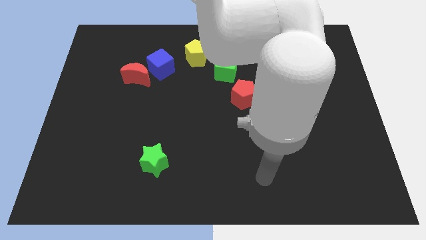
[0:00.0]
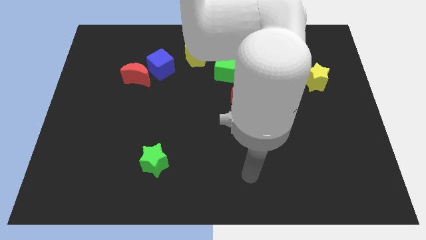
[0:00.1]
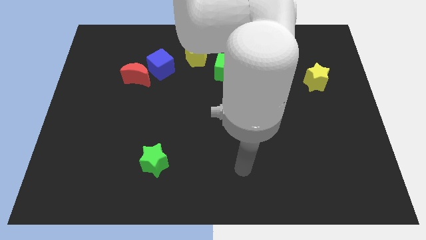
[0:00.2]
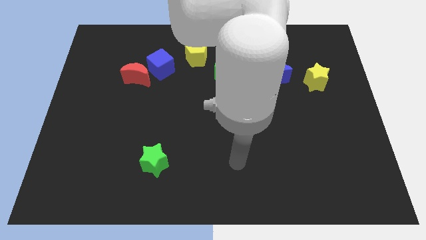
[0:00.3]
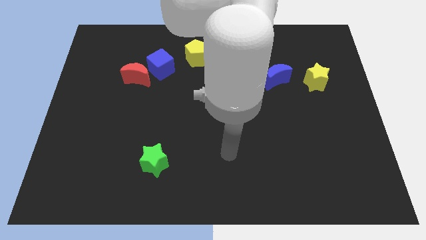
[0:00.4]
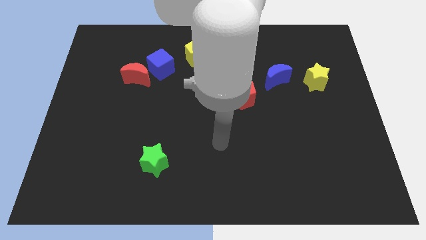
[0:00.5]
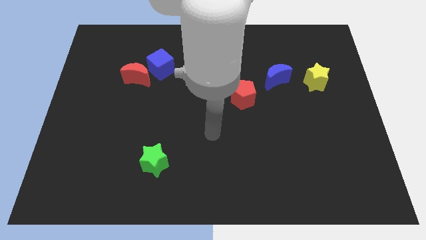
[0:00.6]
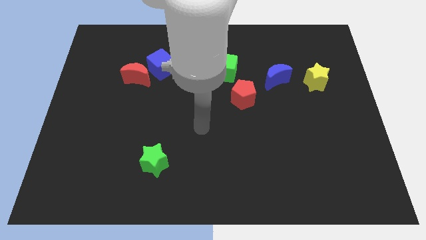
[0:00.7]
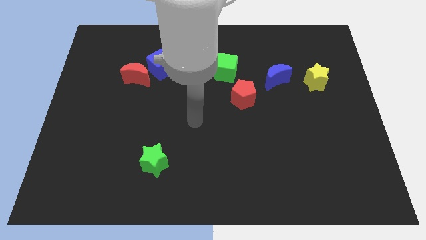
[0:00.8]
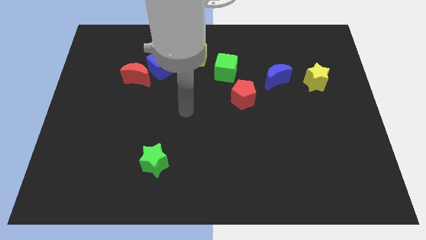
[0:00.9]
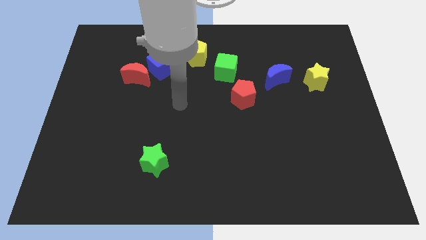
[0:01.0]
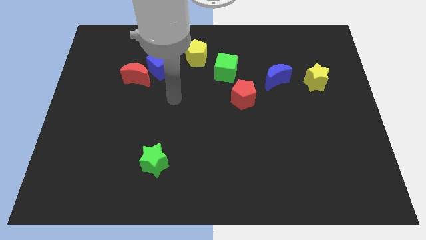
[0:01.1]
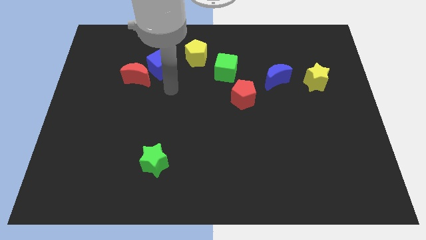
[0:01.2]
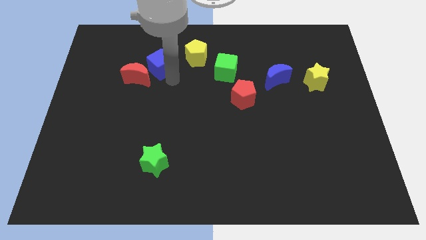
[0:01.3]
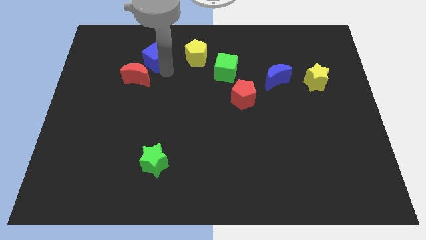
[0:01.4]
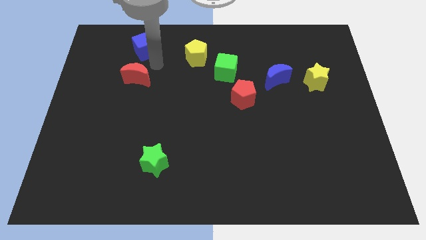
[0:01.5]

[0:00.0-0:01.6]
move the red moon away from the blue cube

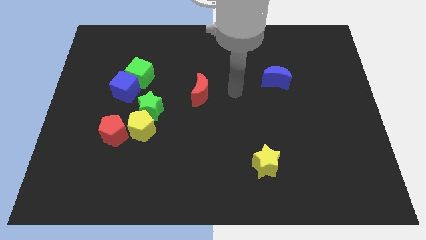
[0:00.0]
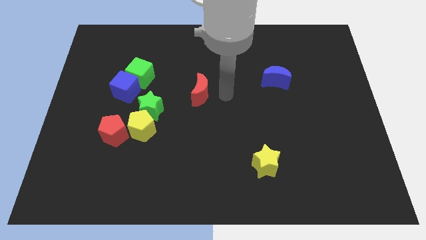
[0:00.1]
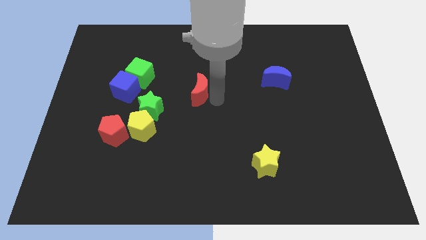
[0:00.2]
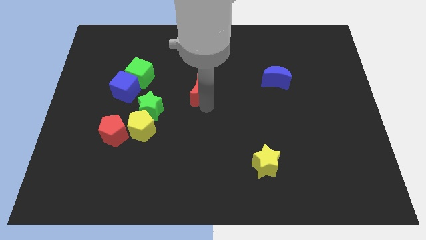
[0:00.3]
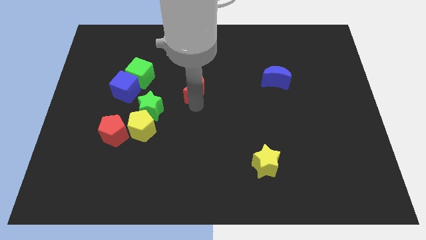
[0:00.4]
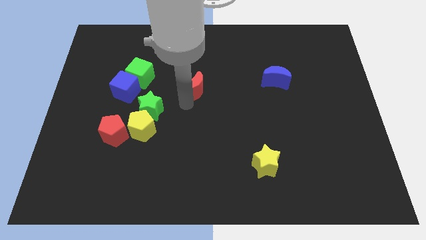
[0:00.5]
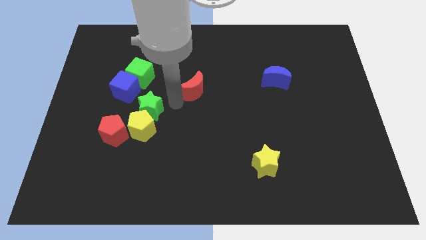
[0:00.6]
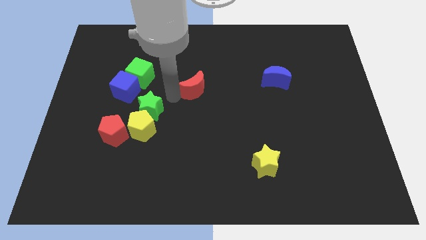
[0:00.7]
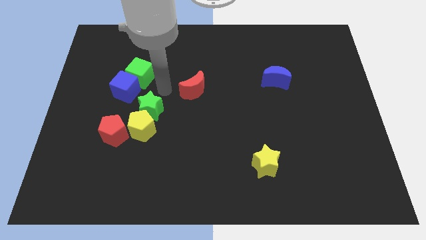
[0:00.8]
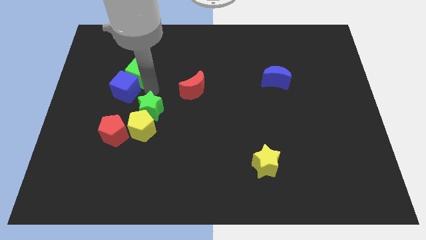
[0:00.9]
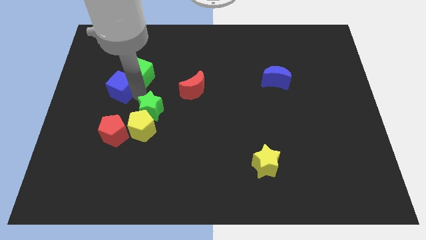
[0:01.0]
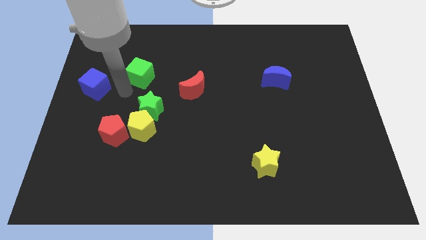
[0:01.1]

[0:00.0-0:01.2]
move the green cube away from the blue cube

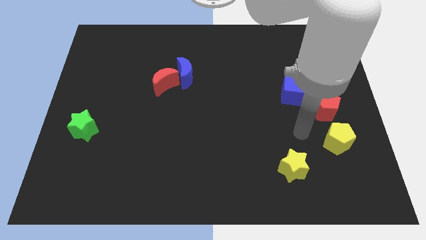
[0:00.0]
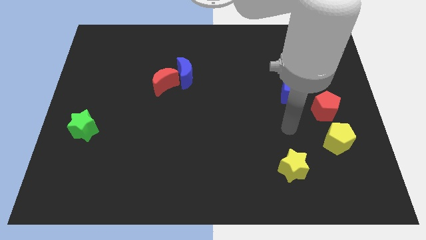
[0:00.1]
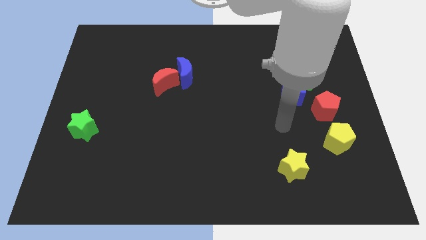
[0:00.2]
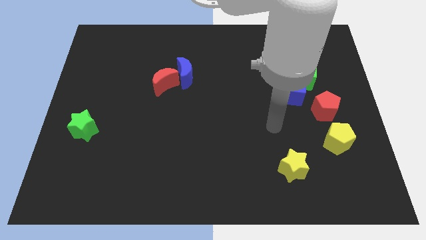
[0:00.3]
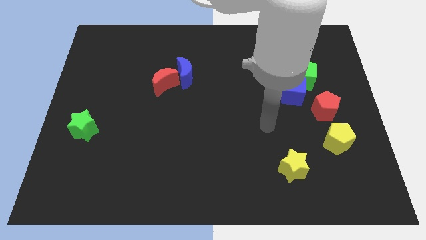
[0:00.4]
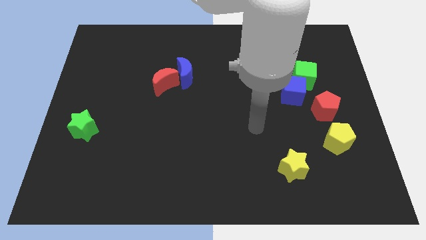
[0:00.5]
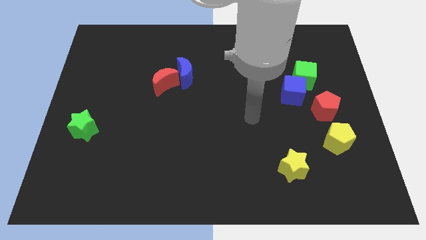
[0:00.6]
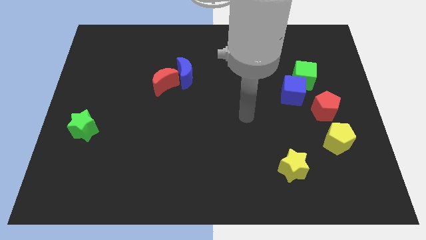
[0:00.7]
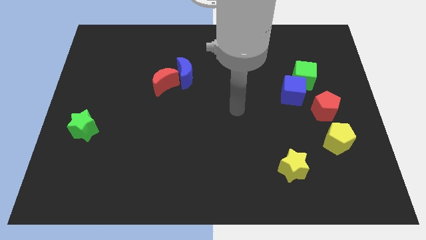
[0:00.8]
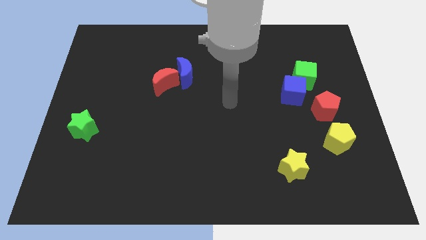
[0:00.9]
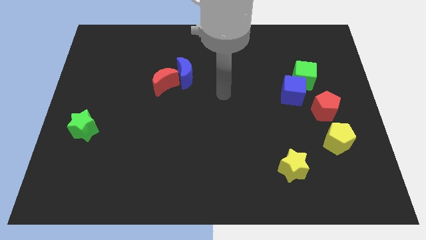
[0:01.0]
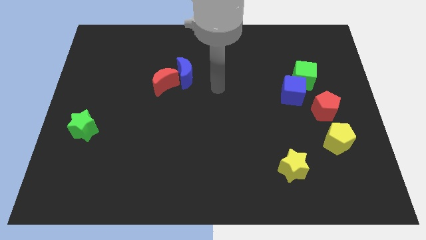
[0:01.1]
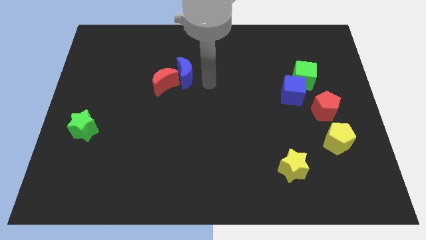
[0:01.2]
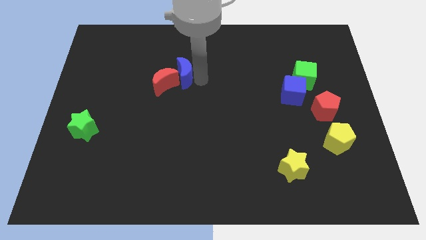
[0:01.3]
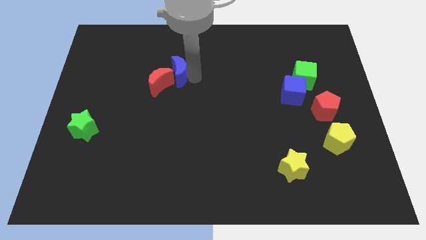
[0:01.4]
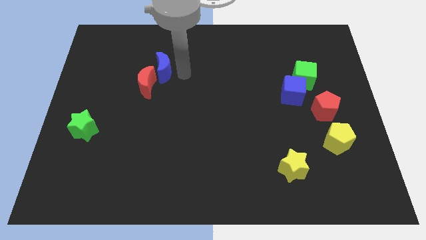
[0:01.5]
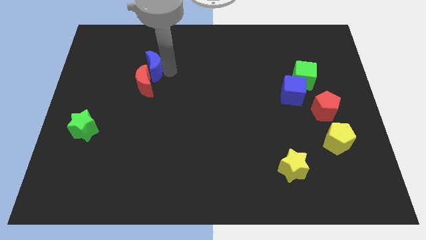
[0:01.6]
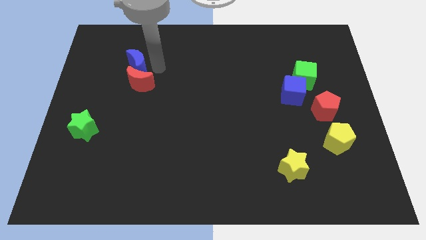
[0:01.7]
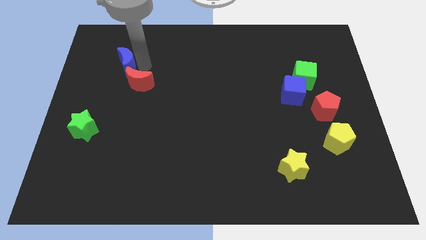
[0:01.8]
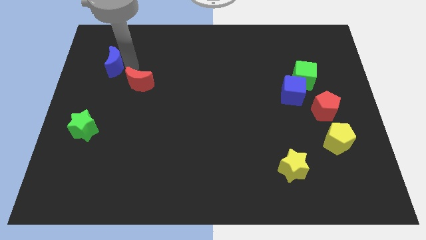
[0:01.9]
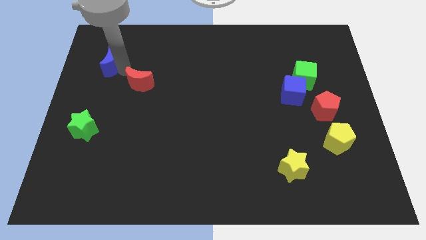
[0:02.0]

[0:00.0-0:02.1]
separate the red moon from the blue moon

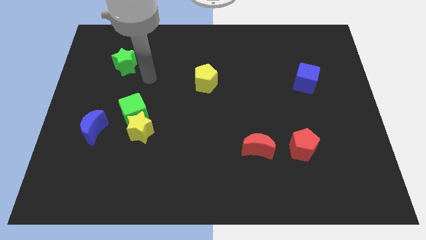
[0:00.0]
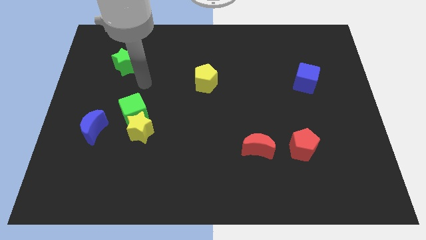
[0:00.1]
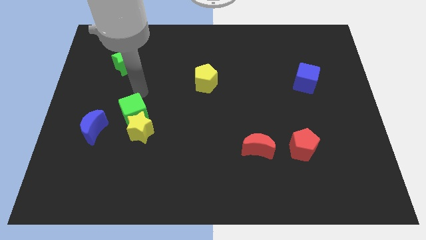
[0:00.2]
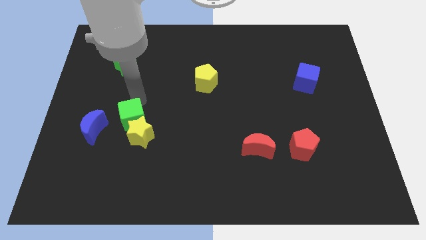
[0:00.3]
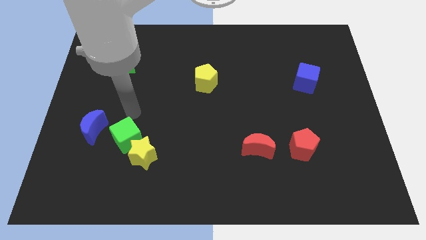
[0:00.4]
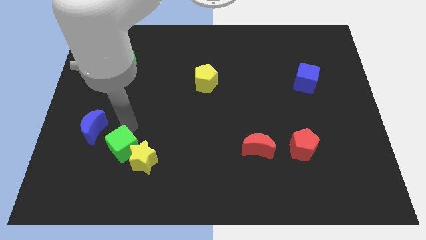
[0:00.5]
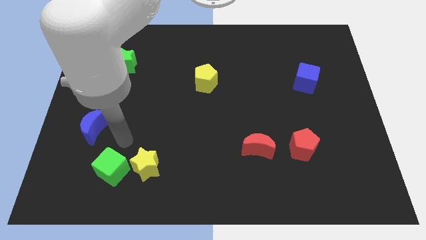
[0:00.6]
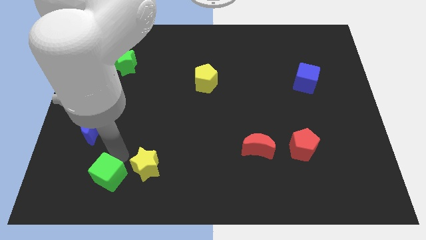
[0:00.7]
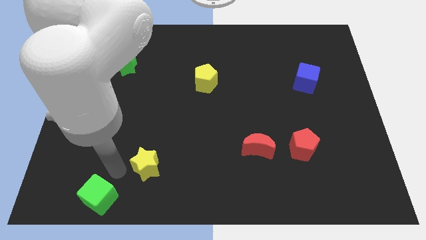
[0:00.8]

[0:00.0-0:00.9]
pull the yellow star apart from the green cube

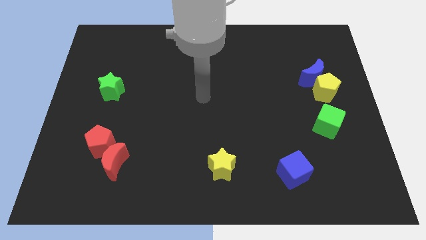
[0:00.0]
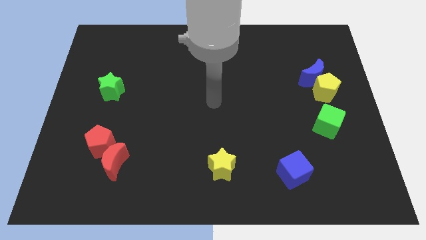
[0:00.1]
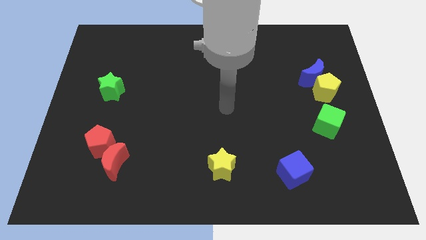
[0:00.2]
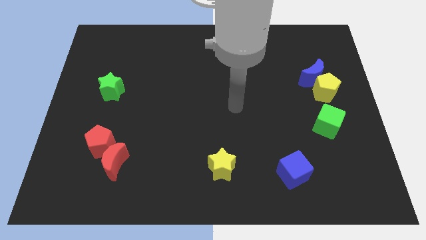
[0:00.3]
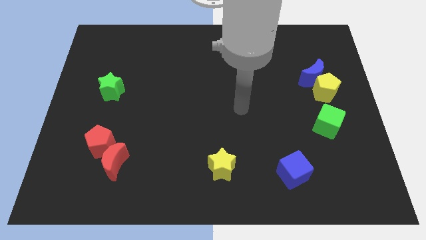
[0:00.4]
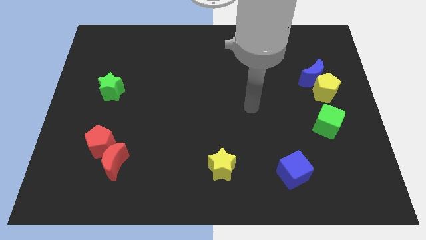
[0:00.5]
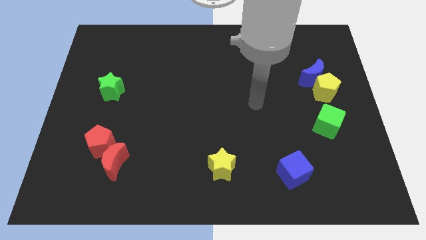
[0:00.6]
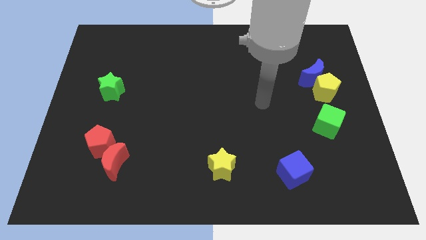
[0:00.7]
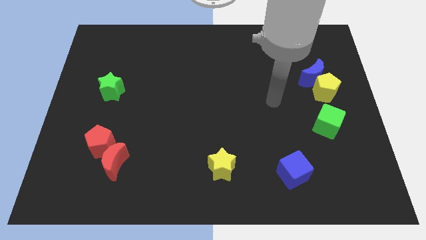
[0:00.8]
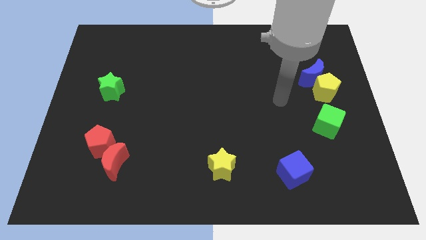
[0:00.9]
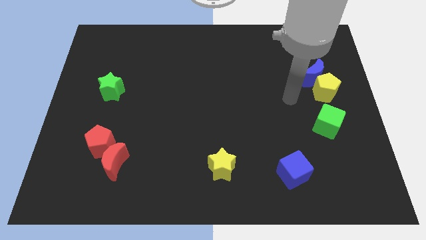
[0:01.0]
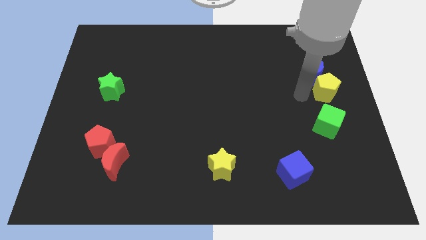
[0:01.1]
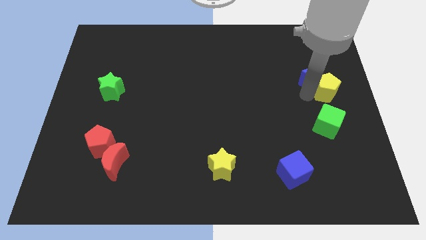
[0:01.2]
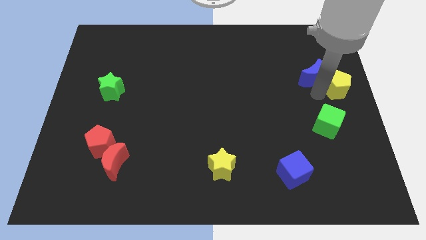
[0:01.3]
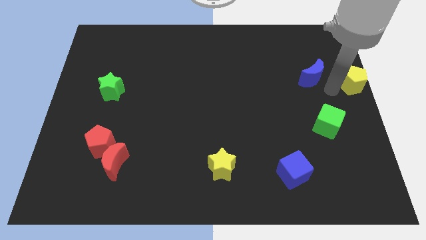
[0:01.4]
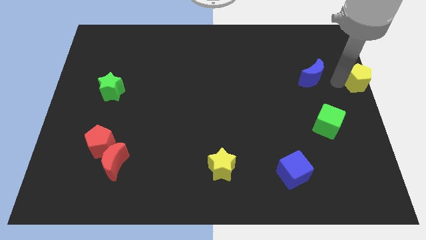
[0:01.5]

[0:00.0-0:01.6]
move the blue moon away from the yellow pentagon

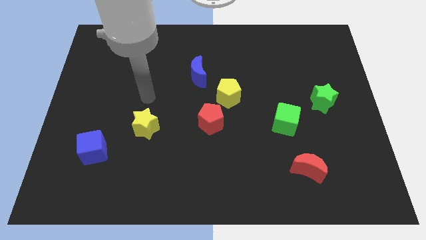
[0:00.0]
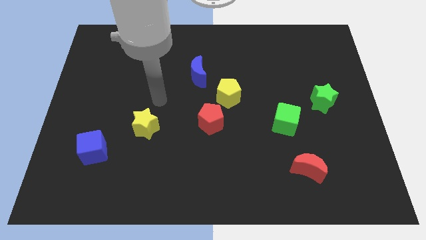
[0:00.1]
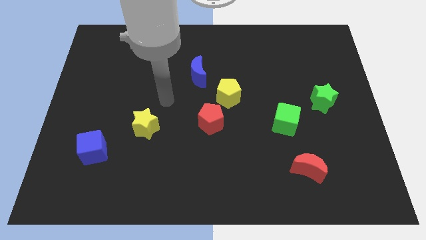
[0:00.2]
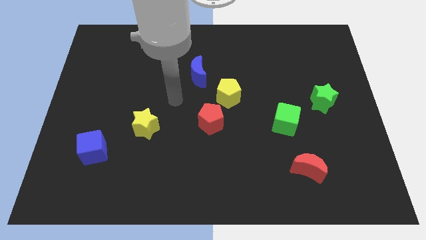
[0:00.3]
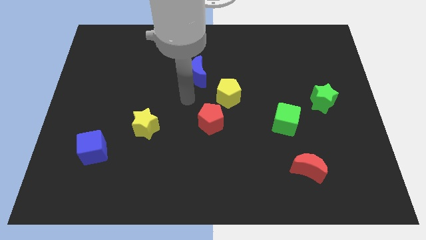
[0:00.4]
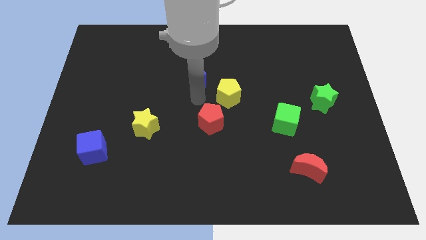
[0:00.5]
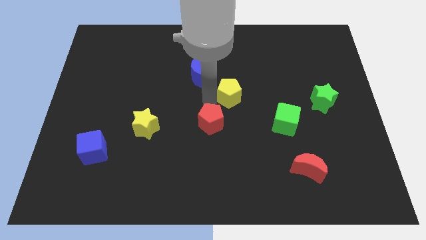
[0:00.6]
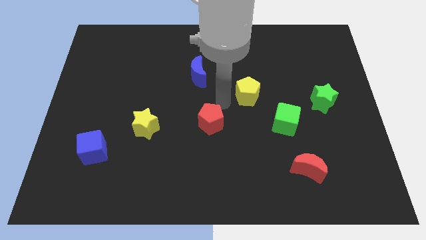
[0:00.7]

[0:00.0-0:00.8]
move the red pentagon away from the yellow pentagon

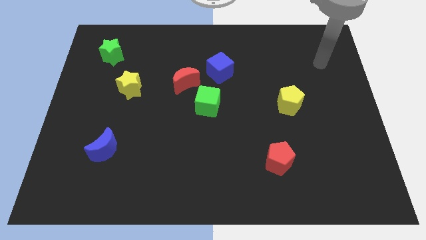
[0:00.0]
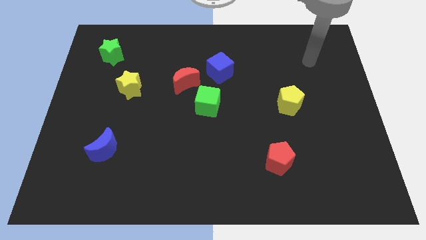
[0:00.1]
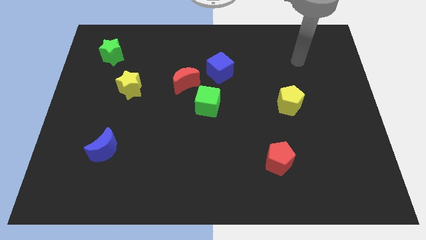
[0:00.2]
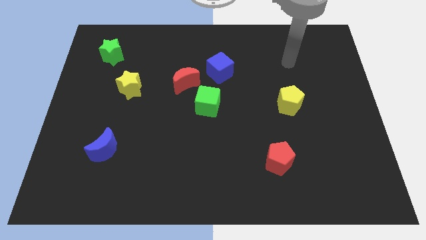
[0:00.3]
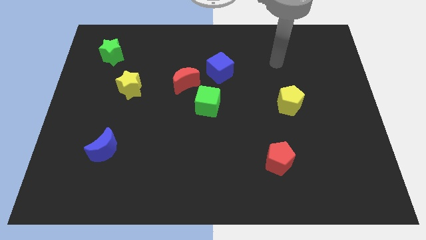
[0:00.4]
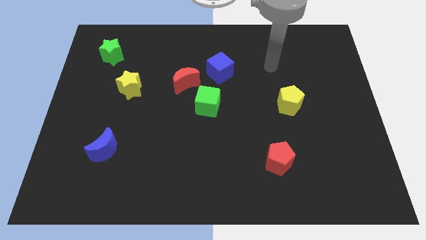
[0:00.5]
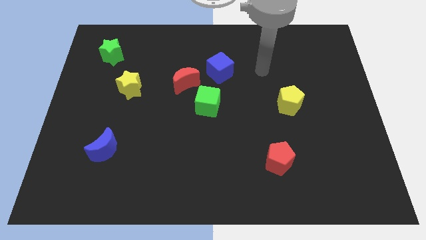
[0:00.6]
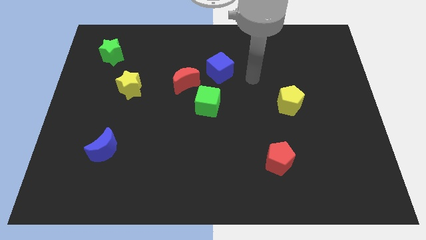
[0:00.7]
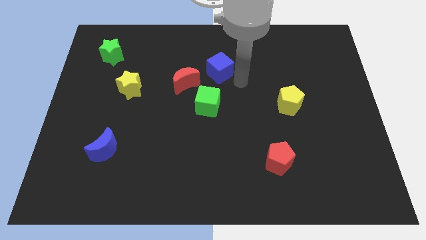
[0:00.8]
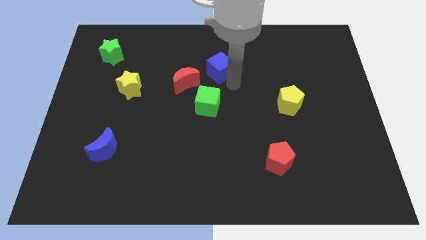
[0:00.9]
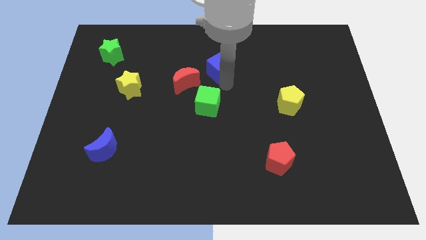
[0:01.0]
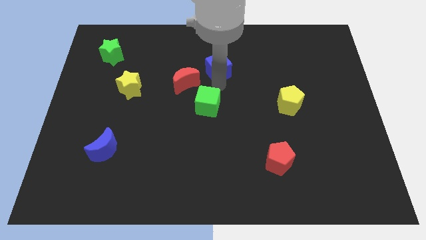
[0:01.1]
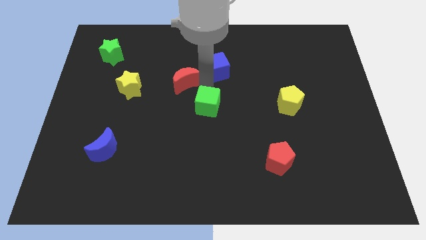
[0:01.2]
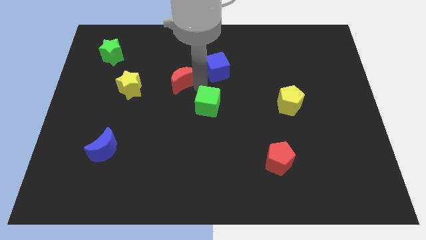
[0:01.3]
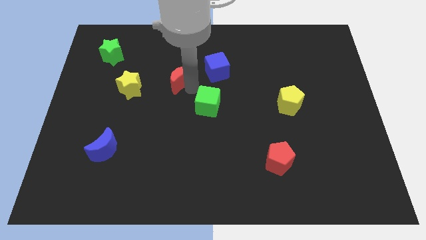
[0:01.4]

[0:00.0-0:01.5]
move the green cube away from the red moon
